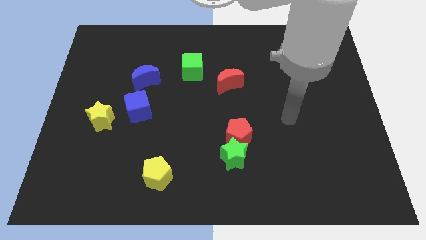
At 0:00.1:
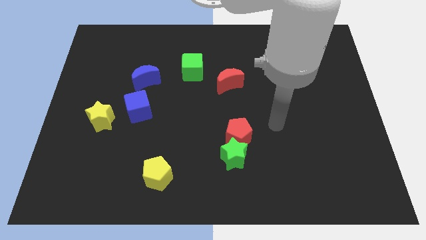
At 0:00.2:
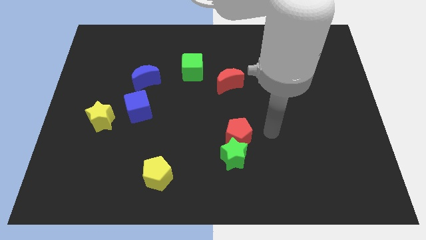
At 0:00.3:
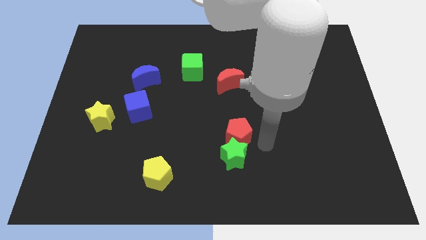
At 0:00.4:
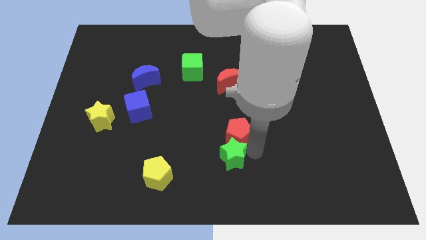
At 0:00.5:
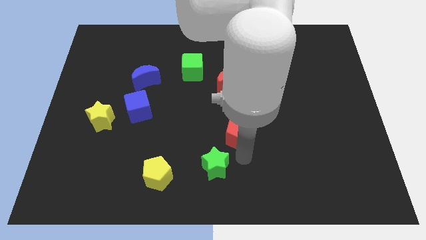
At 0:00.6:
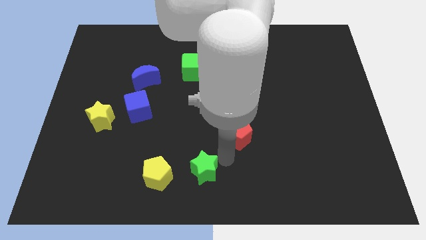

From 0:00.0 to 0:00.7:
pull the red pentagon apart from the green star

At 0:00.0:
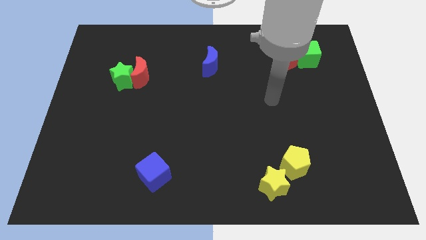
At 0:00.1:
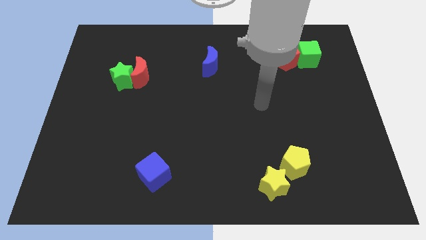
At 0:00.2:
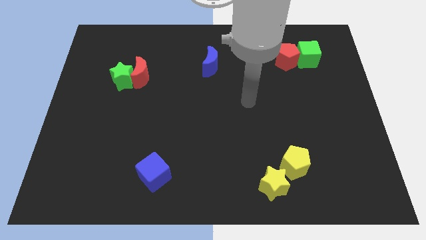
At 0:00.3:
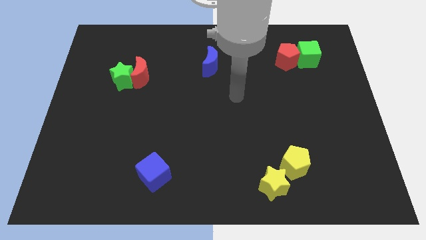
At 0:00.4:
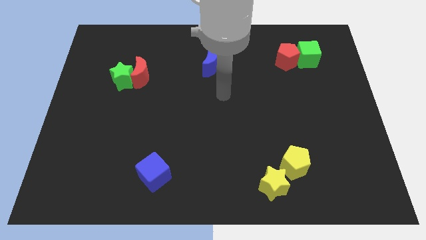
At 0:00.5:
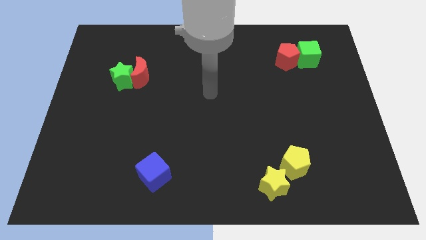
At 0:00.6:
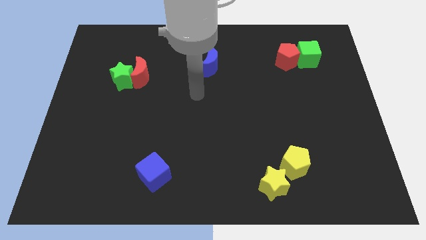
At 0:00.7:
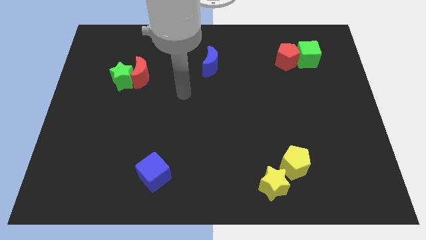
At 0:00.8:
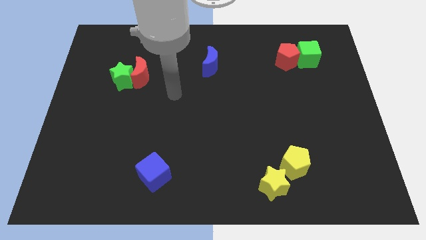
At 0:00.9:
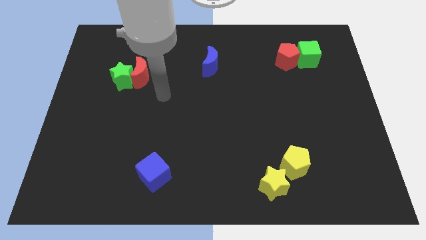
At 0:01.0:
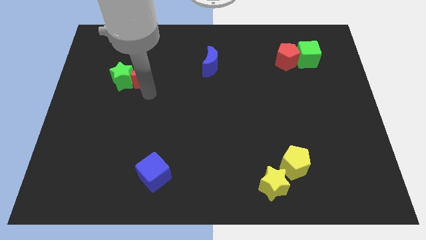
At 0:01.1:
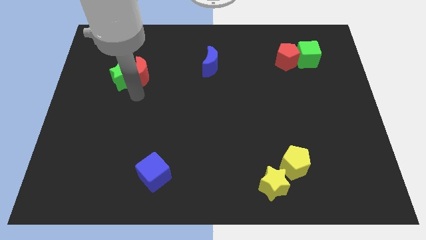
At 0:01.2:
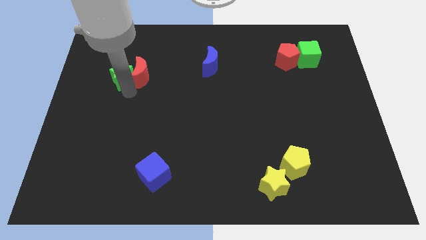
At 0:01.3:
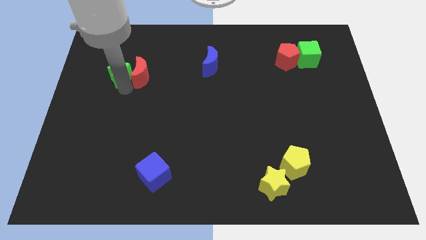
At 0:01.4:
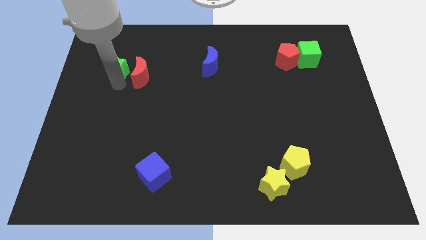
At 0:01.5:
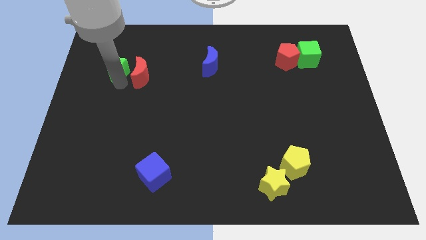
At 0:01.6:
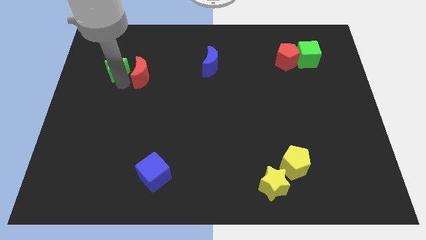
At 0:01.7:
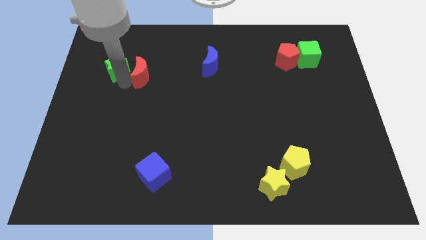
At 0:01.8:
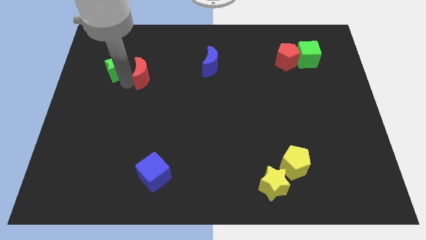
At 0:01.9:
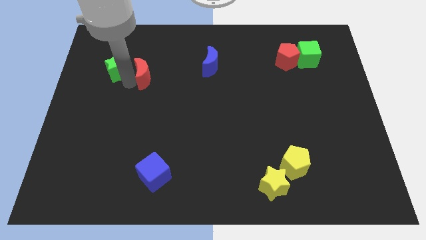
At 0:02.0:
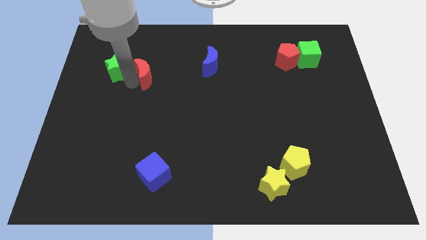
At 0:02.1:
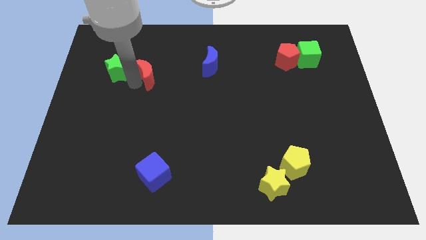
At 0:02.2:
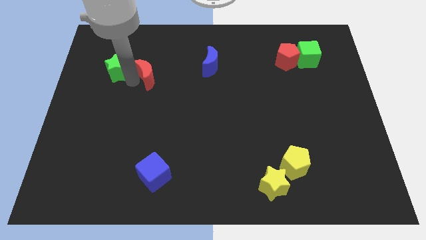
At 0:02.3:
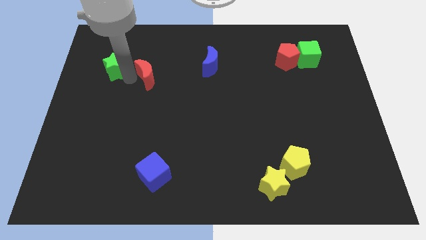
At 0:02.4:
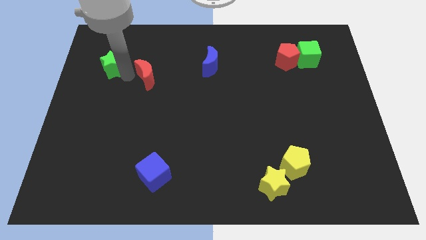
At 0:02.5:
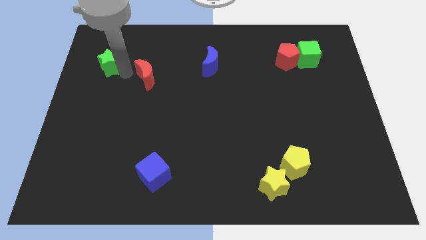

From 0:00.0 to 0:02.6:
move the red moon away from the green star

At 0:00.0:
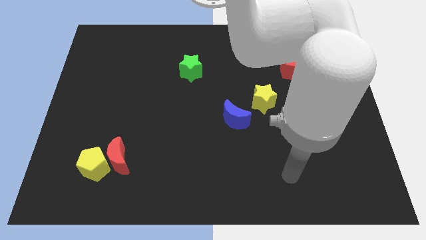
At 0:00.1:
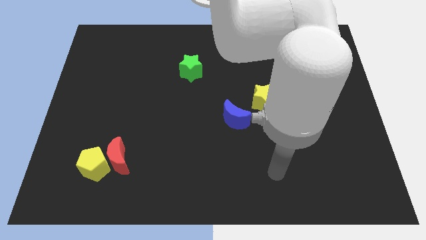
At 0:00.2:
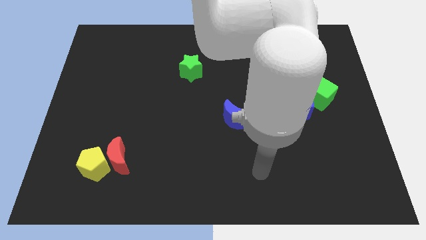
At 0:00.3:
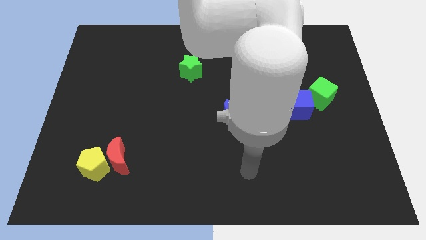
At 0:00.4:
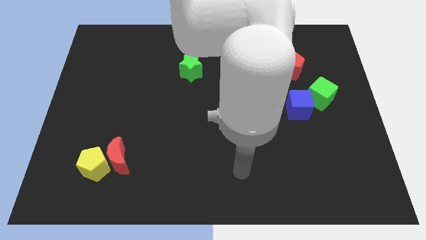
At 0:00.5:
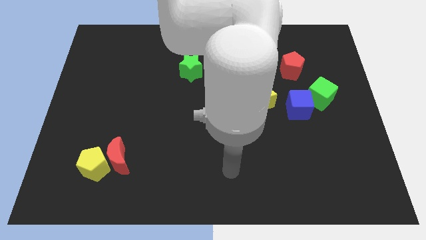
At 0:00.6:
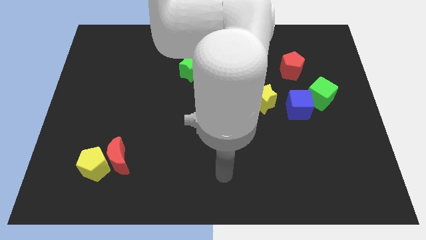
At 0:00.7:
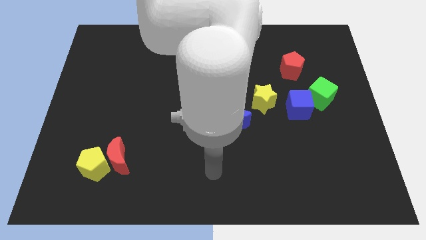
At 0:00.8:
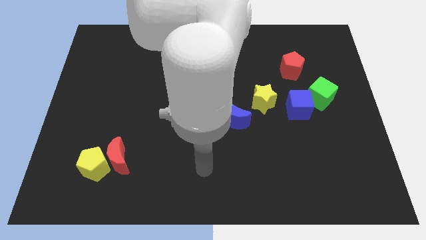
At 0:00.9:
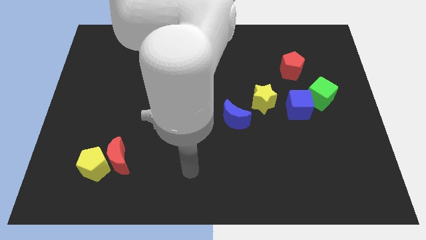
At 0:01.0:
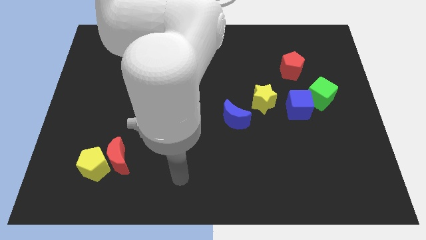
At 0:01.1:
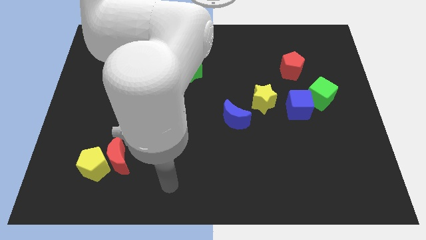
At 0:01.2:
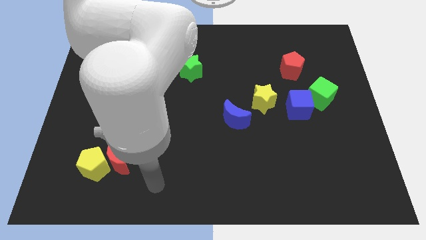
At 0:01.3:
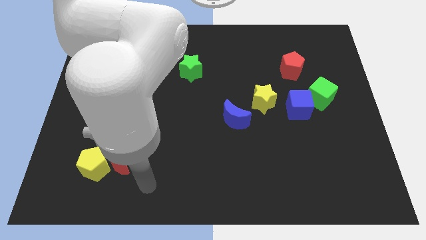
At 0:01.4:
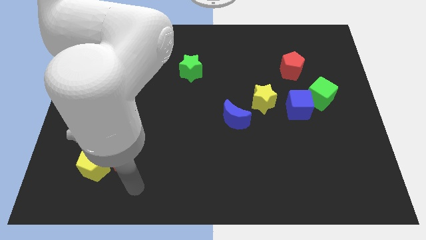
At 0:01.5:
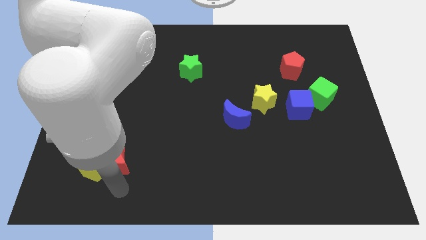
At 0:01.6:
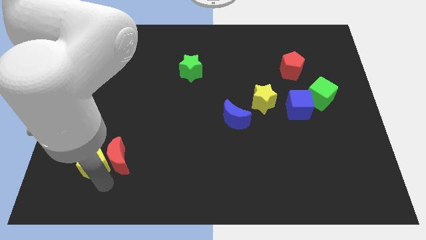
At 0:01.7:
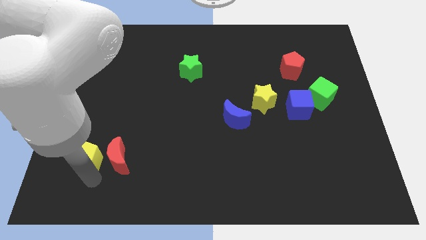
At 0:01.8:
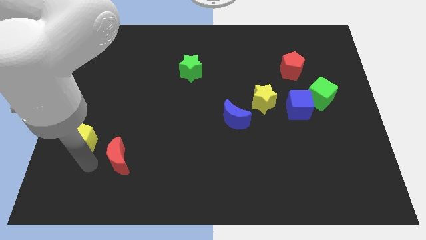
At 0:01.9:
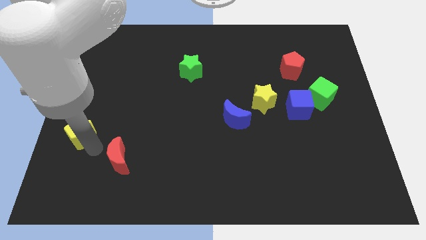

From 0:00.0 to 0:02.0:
move the red moon away from the yellow pentagon

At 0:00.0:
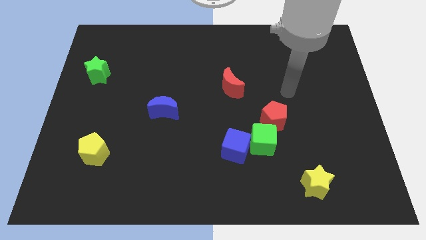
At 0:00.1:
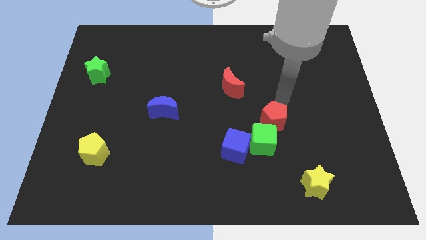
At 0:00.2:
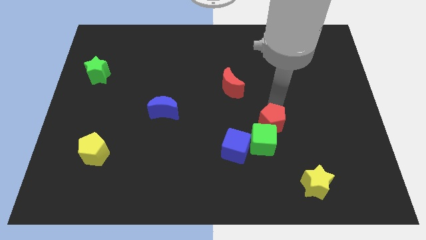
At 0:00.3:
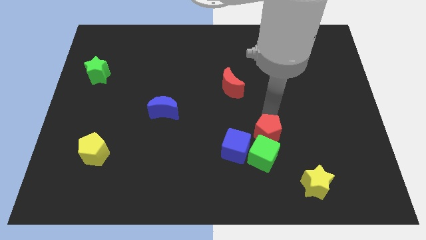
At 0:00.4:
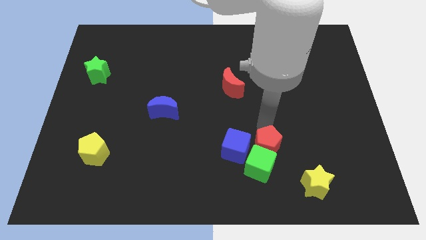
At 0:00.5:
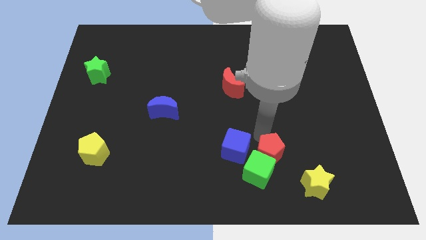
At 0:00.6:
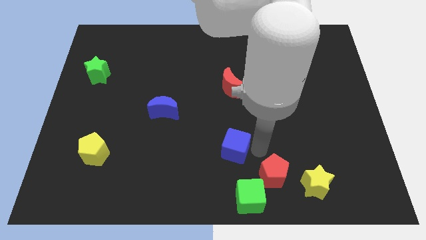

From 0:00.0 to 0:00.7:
separate the blue cube from the green cube

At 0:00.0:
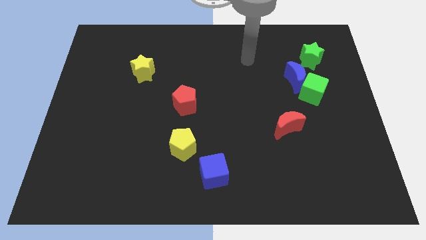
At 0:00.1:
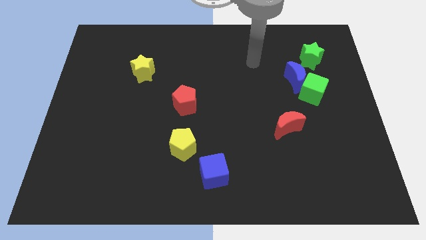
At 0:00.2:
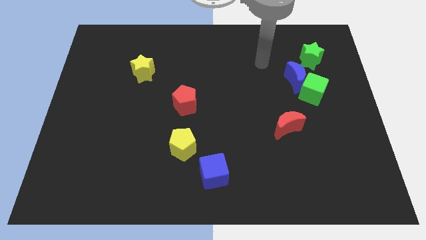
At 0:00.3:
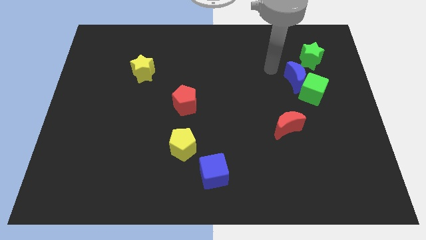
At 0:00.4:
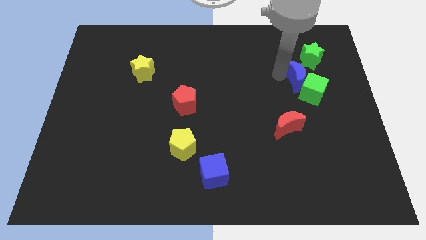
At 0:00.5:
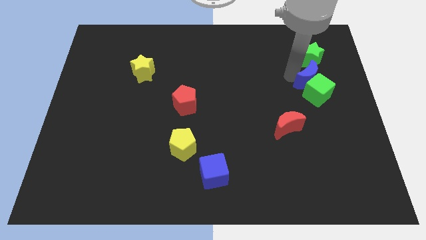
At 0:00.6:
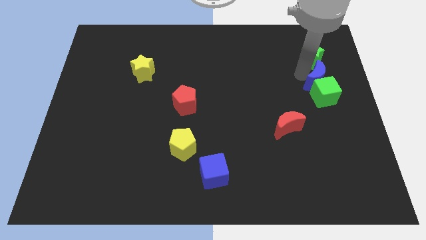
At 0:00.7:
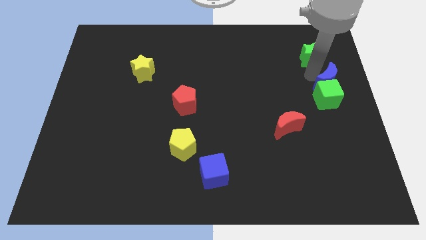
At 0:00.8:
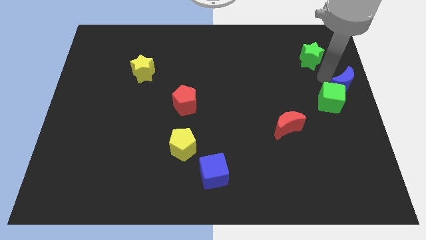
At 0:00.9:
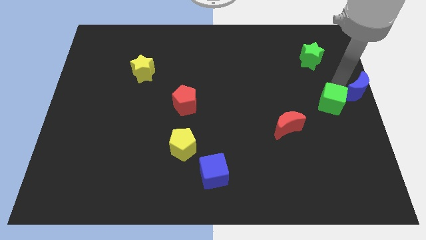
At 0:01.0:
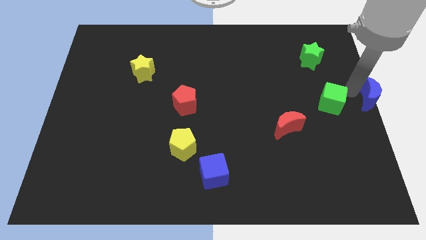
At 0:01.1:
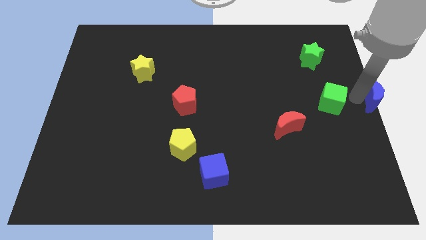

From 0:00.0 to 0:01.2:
separate the green cube from the blue moon

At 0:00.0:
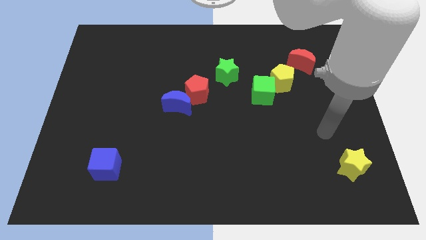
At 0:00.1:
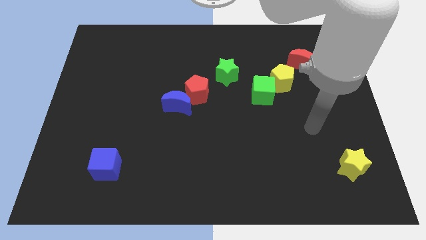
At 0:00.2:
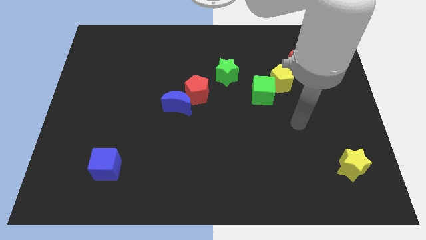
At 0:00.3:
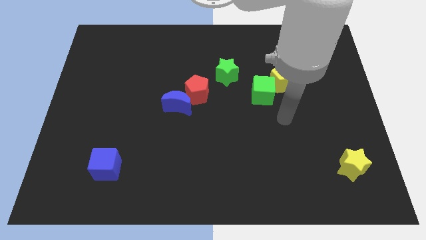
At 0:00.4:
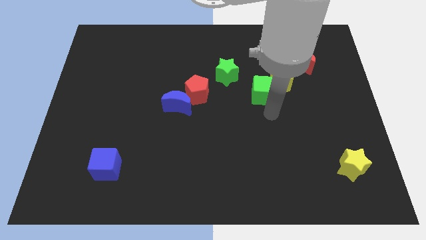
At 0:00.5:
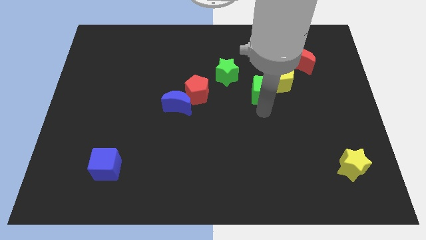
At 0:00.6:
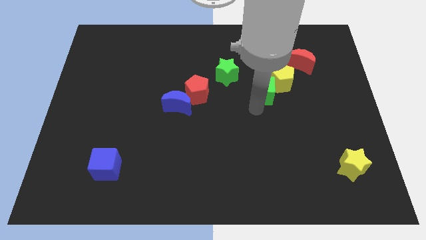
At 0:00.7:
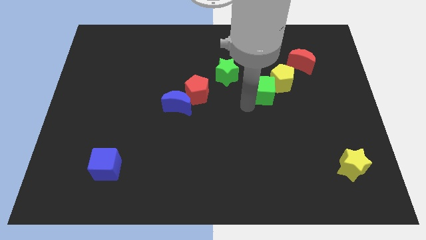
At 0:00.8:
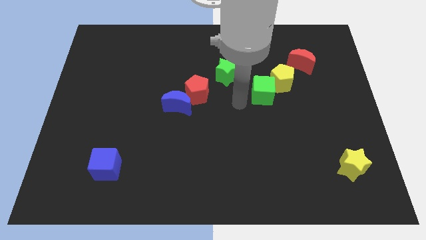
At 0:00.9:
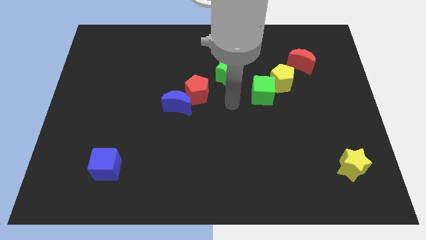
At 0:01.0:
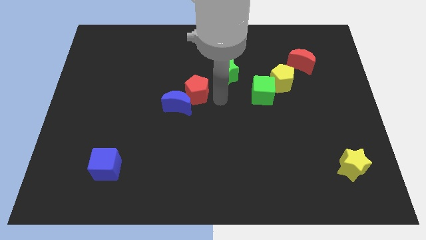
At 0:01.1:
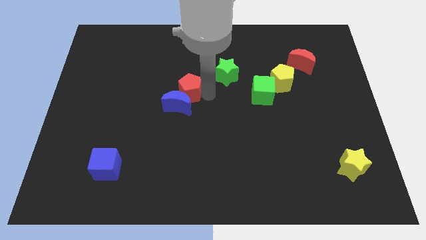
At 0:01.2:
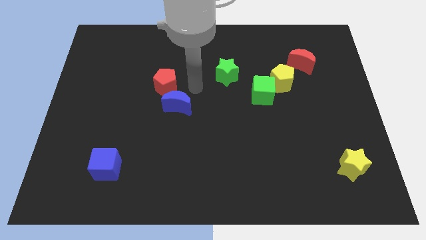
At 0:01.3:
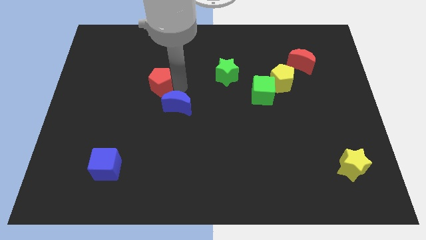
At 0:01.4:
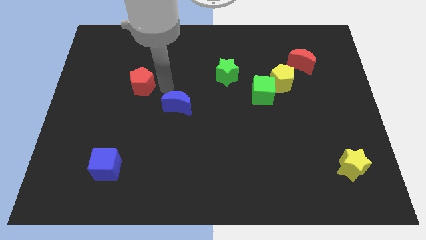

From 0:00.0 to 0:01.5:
pull the blue moon apart from the red pentagon

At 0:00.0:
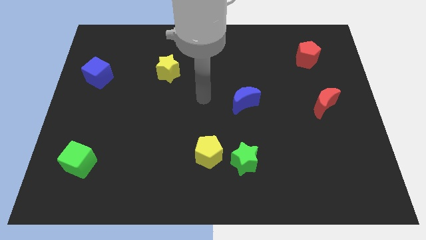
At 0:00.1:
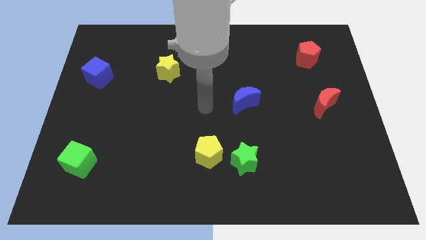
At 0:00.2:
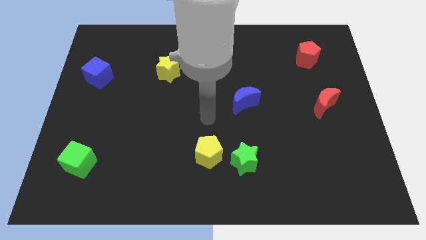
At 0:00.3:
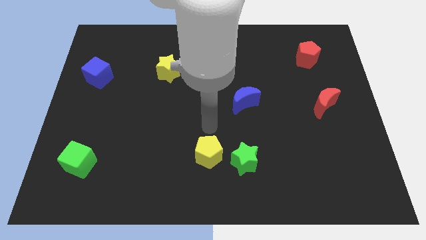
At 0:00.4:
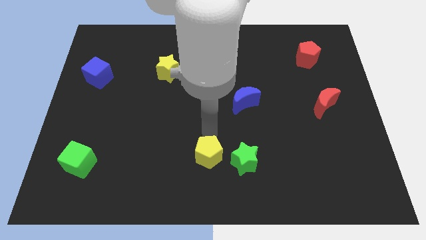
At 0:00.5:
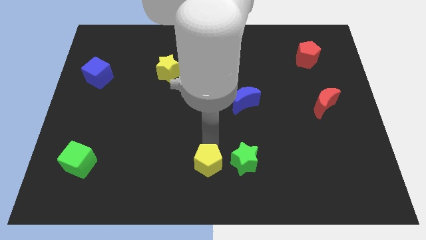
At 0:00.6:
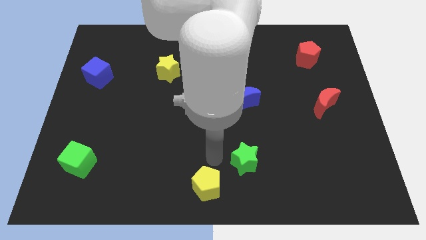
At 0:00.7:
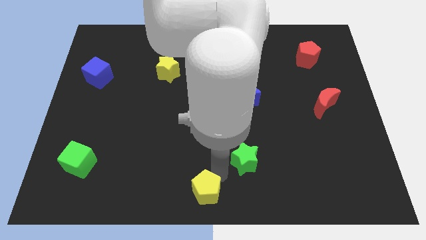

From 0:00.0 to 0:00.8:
pull the green star apart from the yellow pentagon
